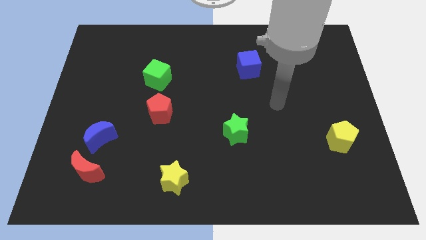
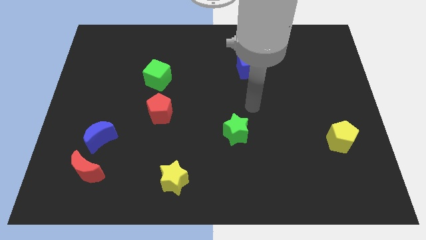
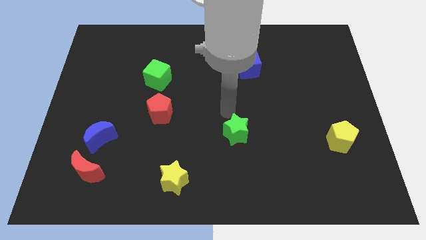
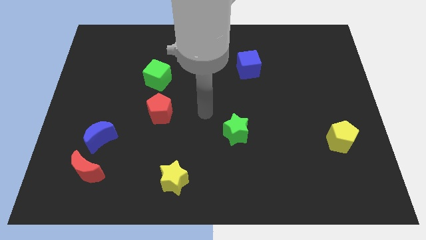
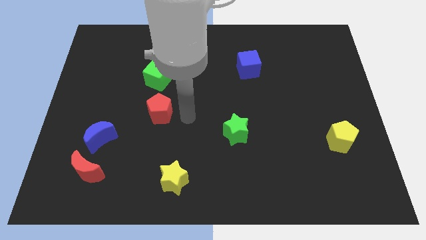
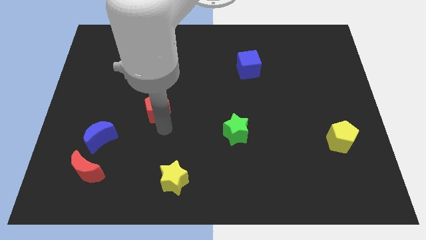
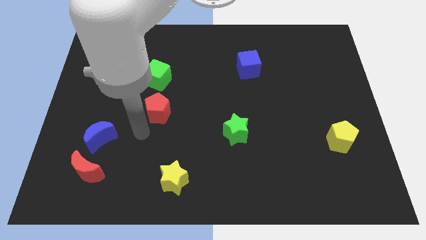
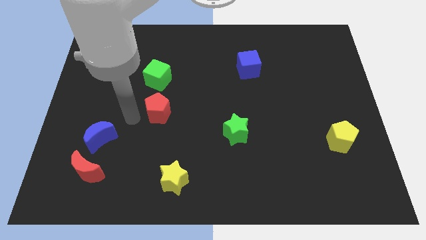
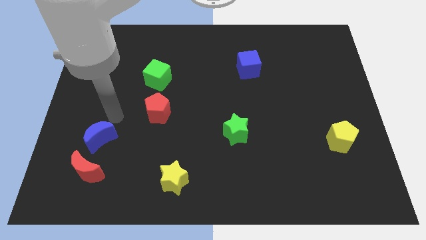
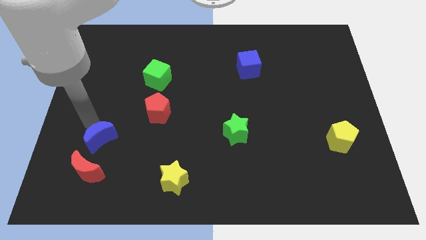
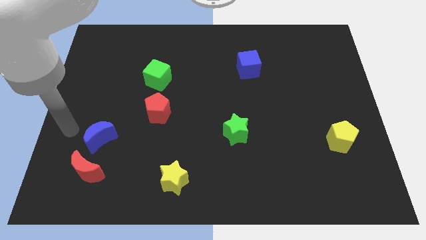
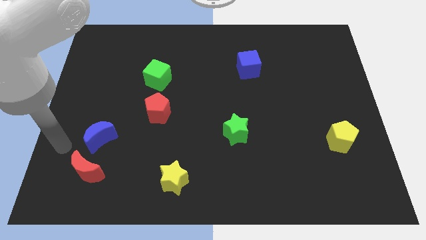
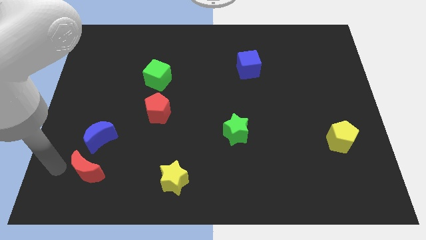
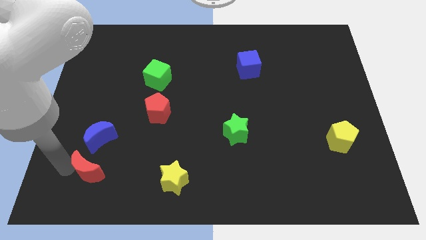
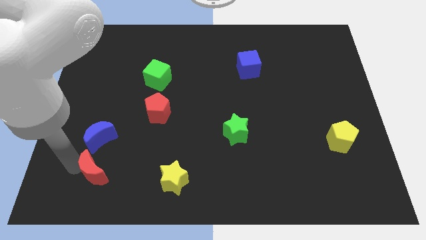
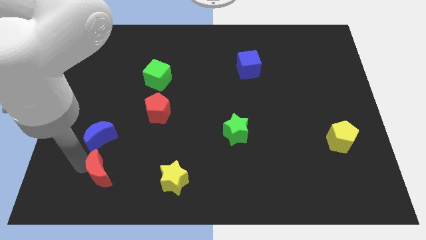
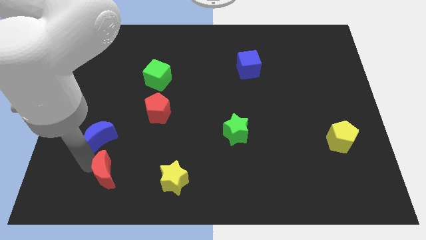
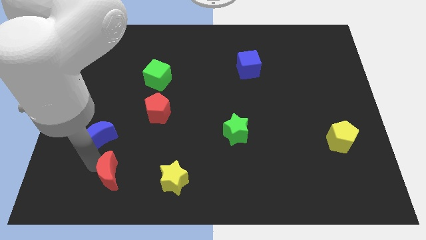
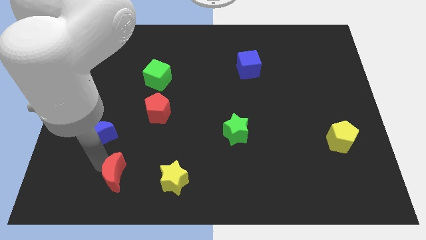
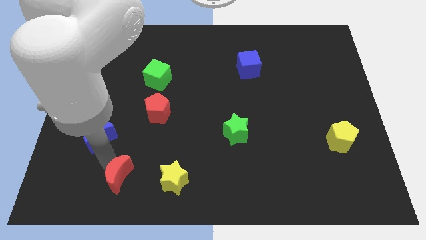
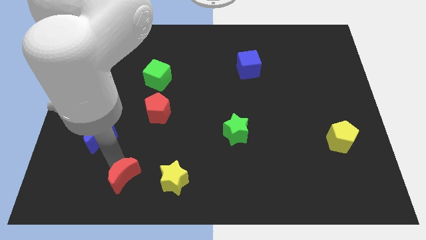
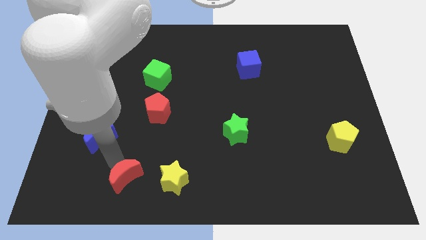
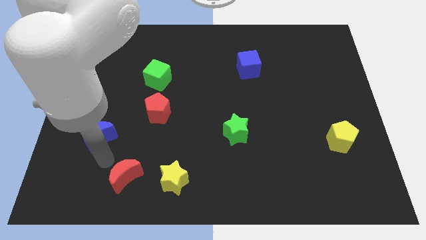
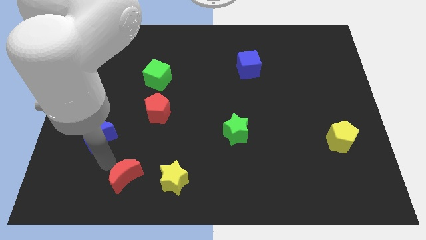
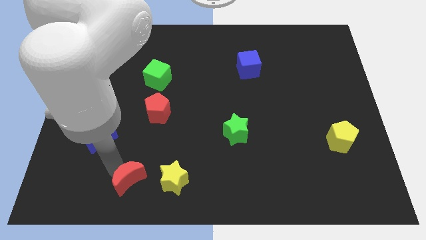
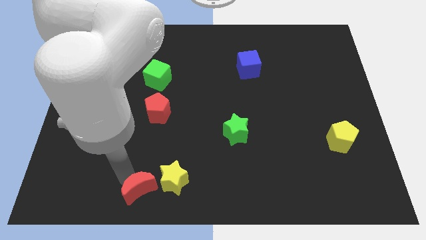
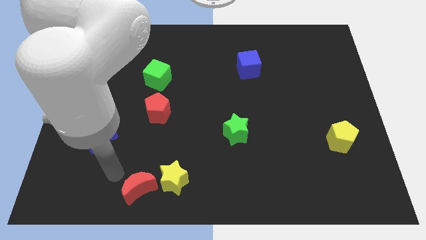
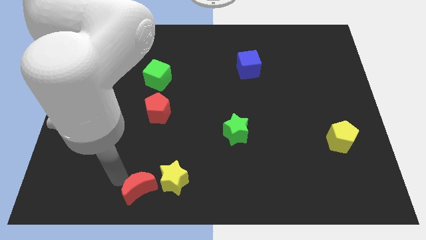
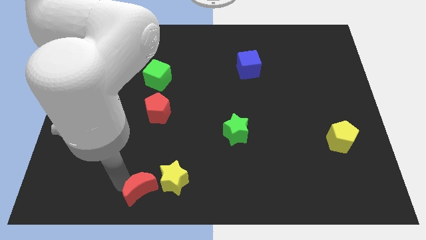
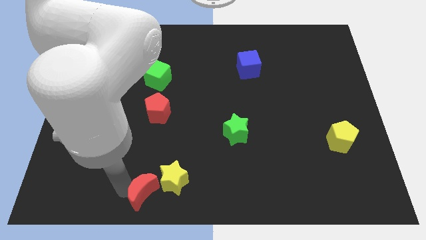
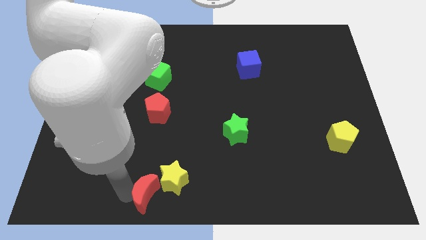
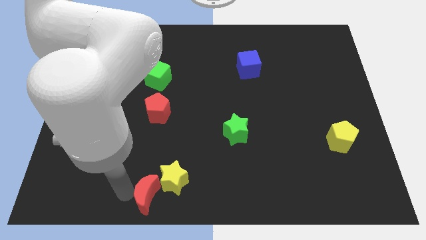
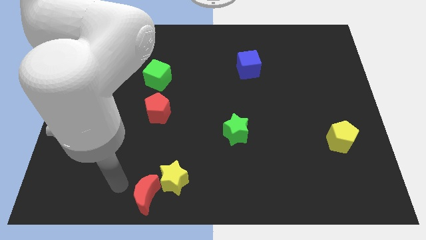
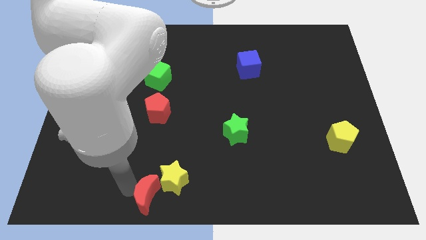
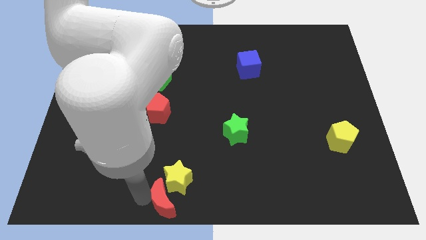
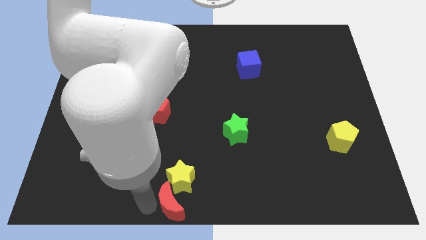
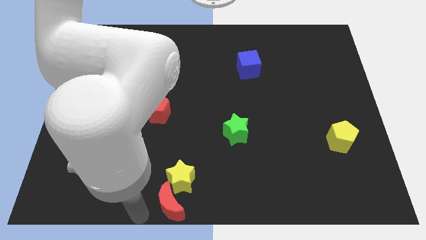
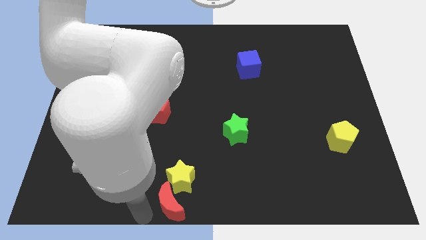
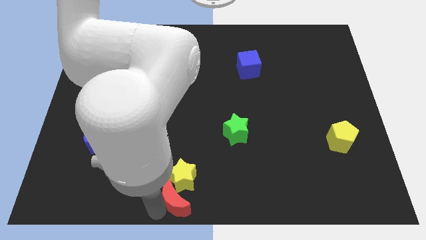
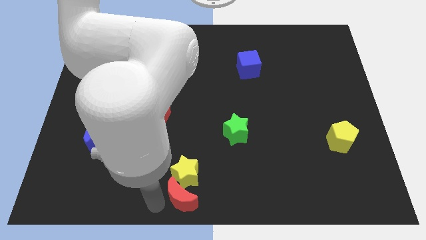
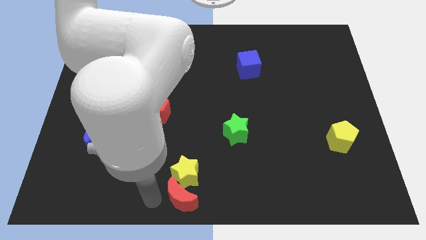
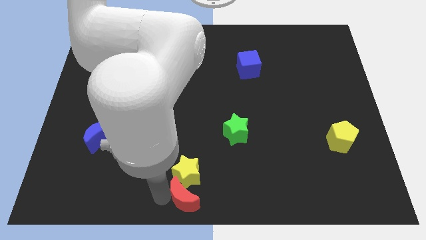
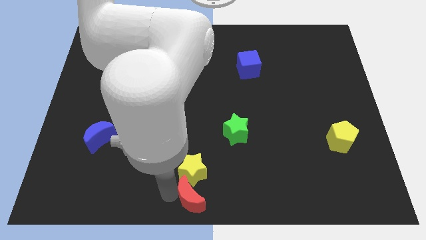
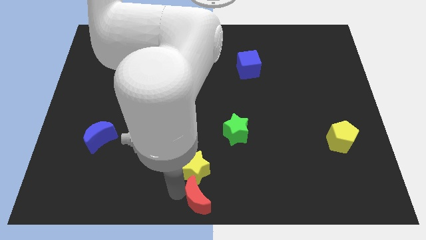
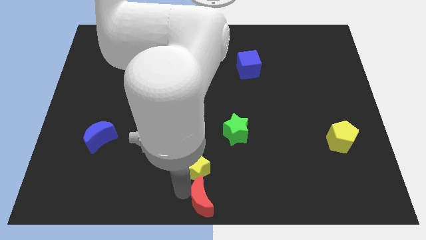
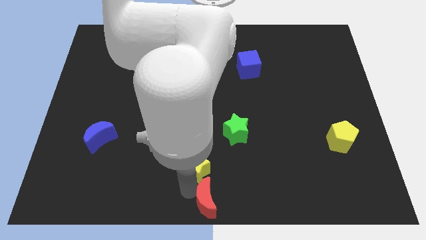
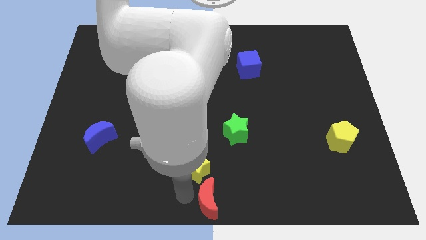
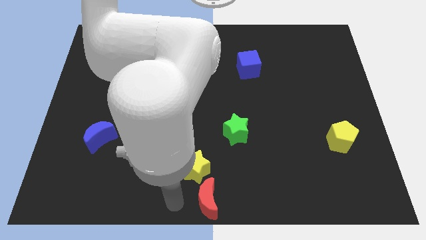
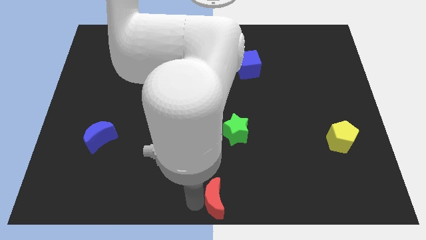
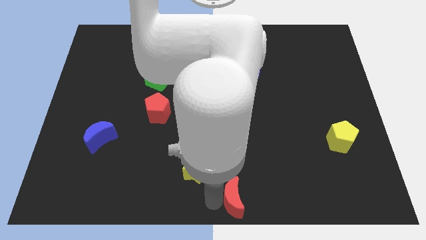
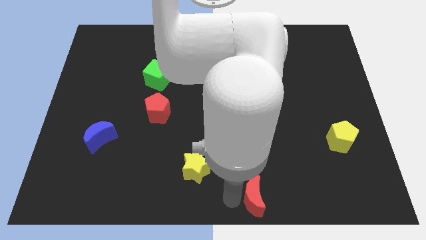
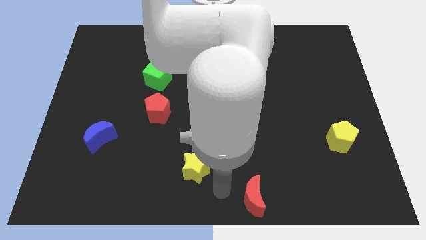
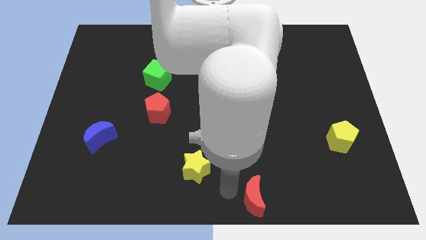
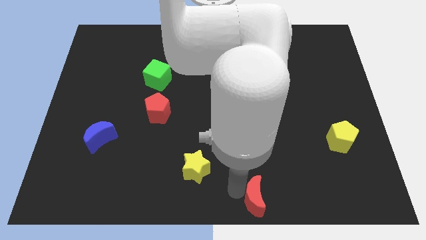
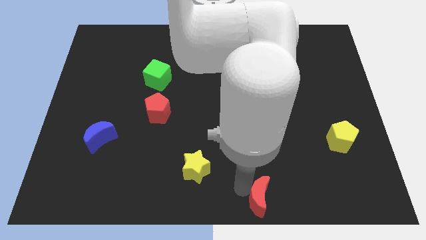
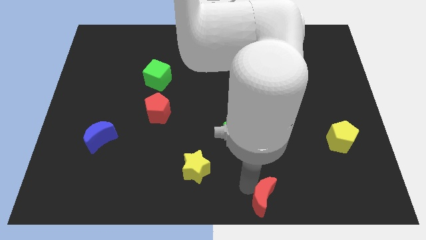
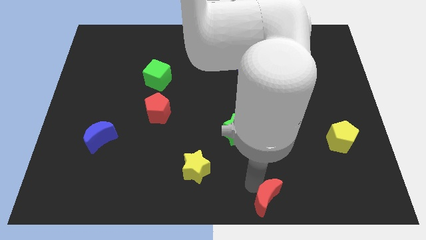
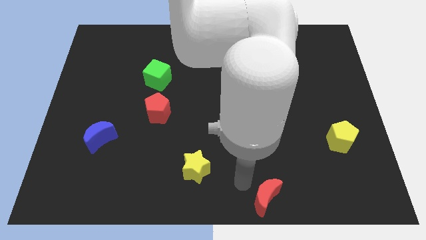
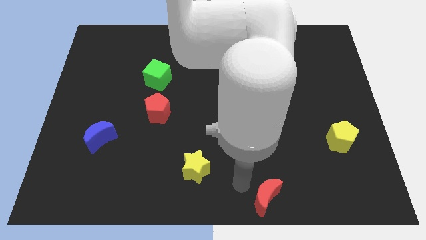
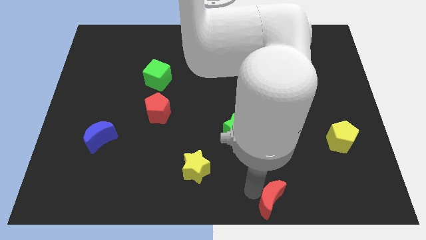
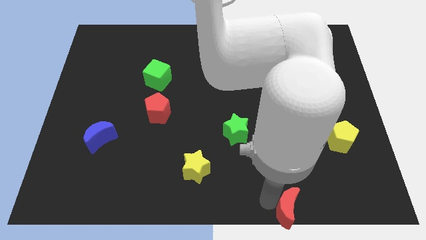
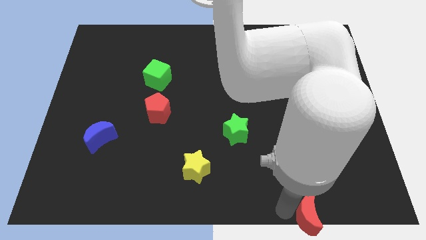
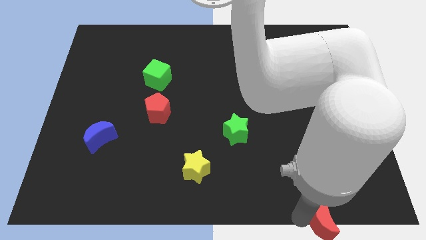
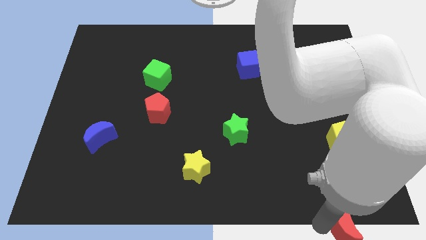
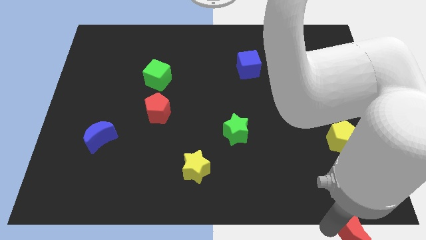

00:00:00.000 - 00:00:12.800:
put the red moon to the bottom right corner

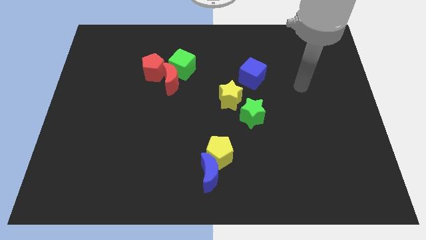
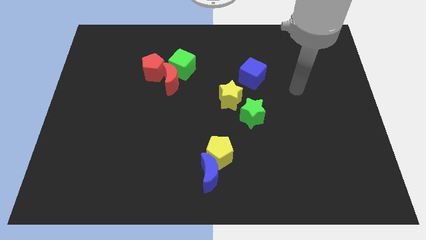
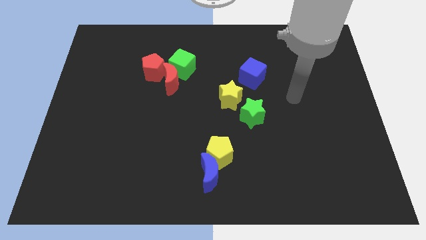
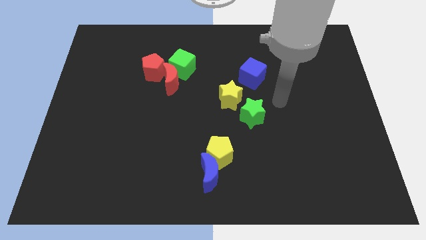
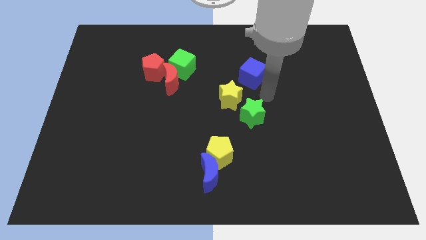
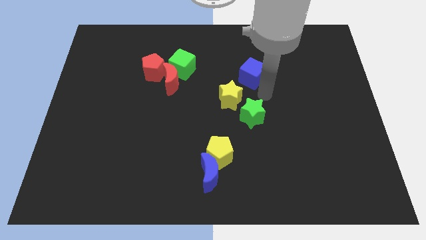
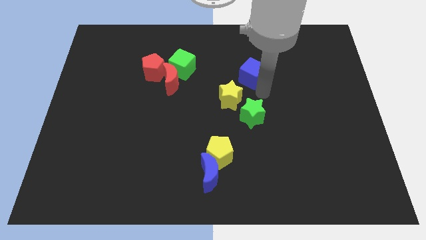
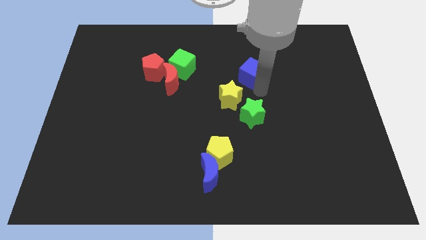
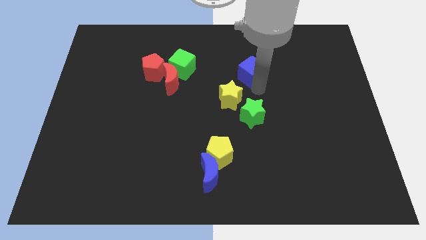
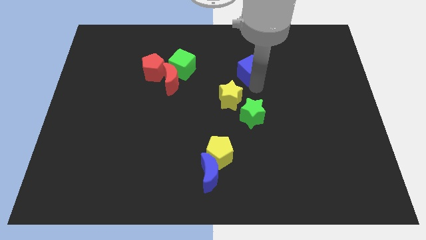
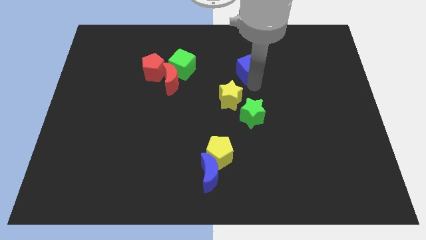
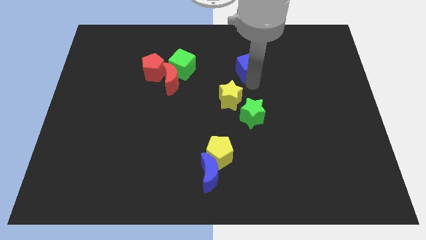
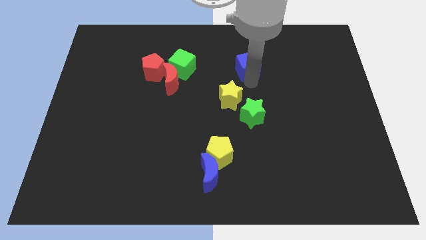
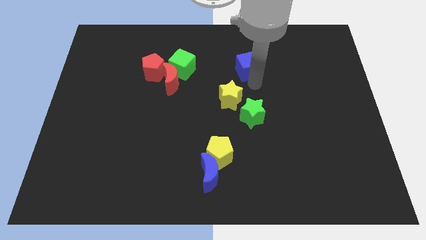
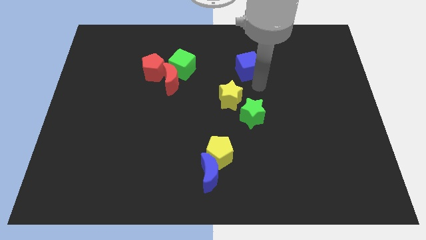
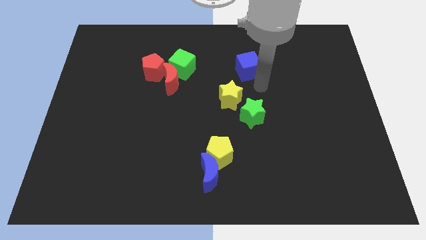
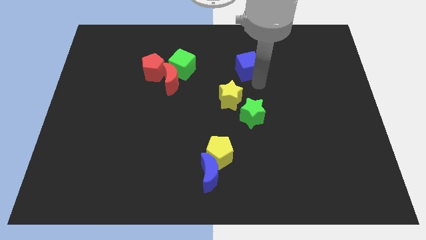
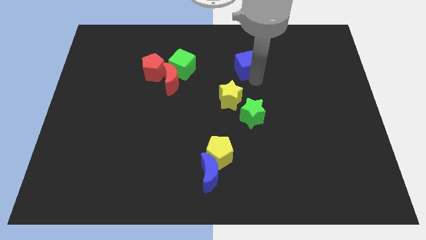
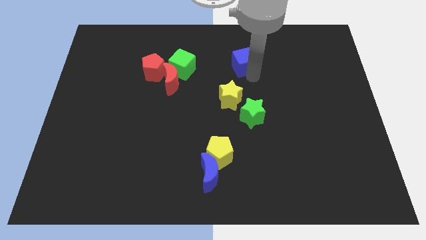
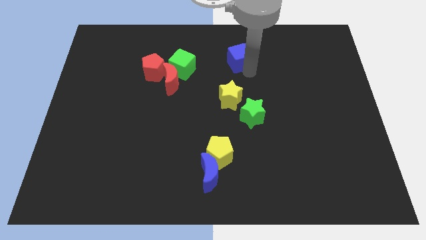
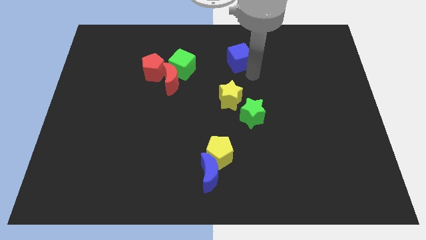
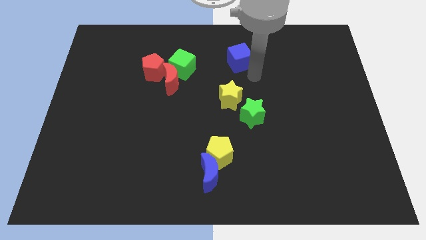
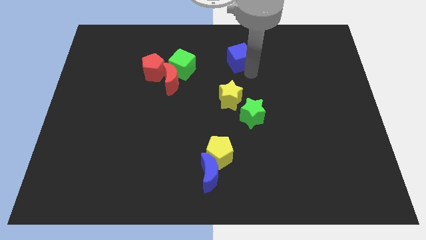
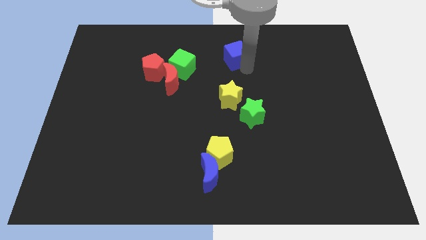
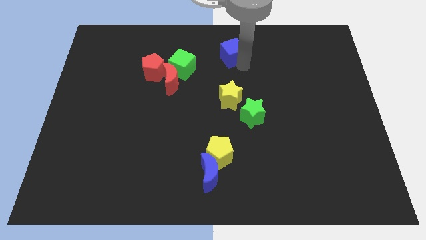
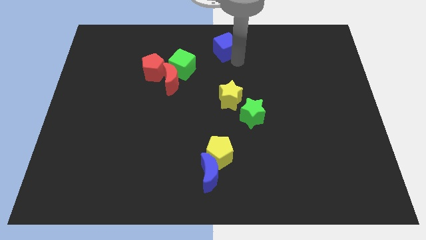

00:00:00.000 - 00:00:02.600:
move the blue cube to the towards your base
